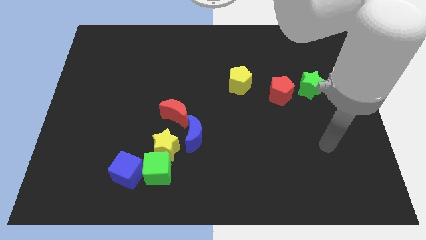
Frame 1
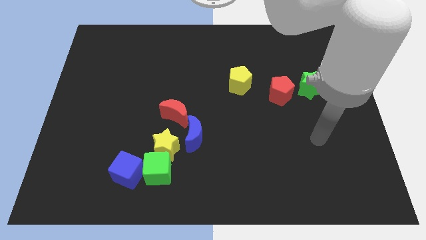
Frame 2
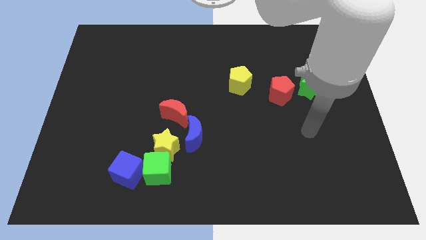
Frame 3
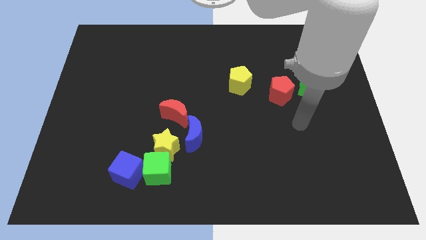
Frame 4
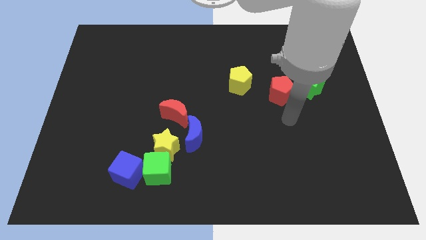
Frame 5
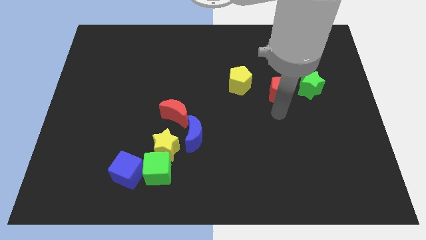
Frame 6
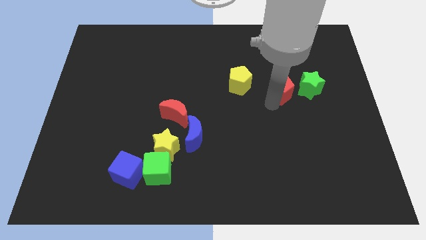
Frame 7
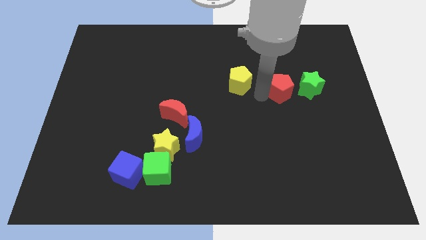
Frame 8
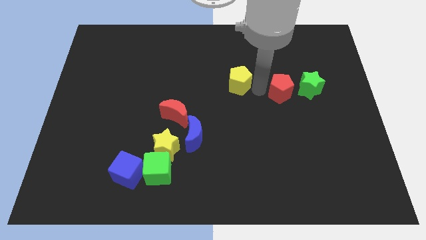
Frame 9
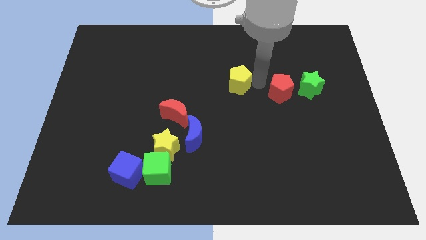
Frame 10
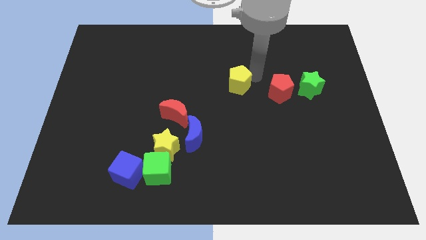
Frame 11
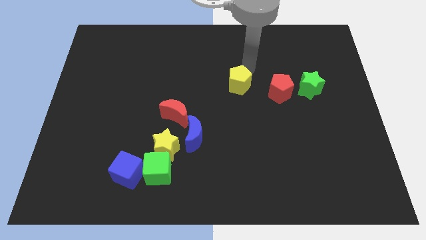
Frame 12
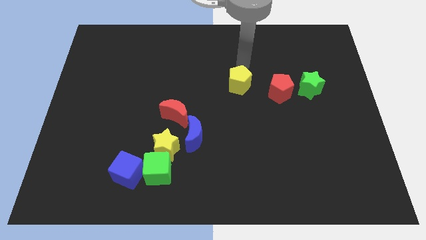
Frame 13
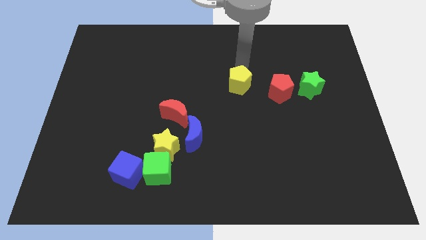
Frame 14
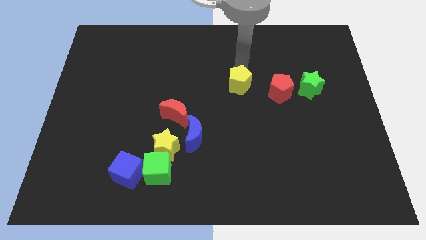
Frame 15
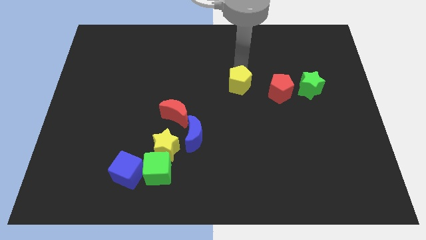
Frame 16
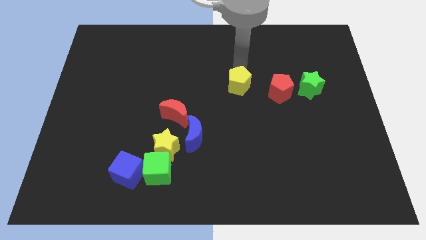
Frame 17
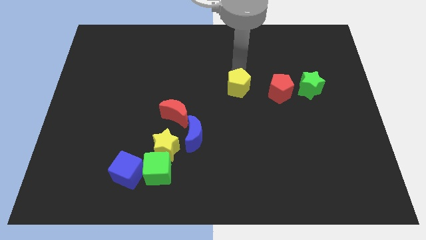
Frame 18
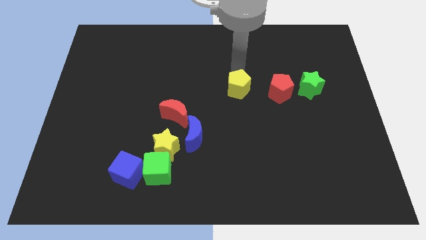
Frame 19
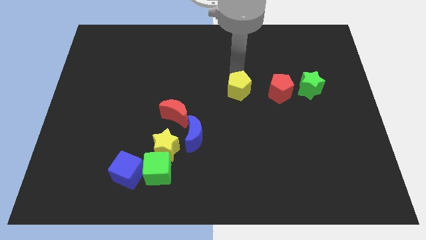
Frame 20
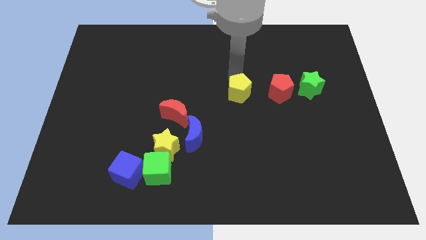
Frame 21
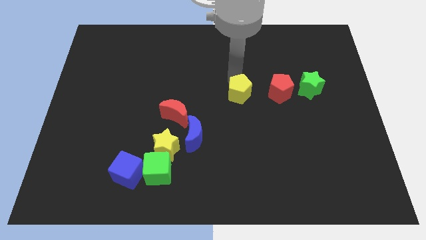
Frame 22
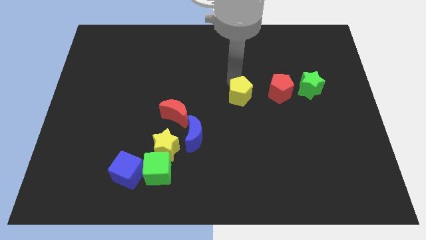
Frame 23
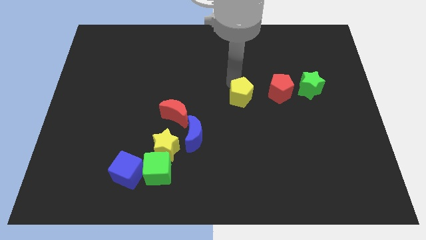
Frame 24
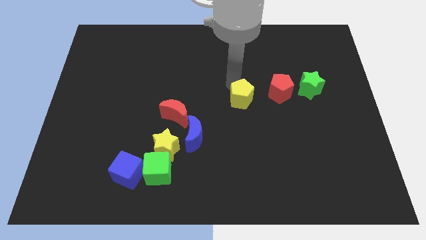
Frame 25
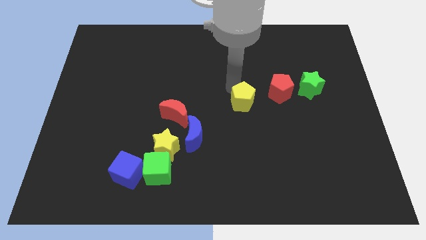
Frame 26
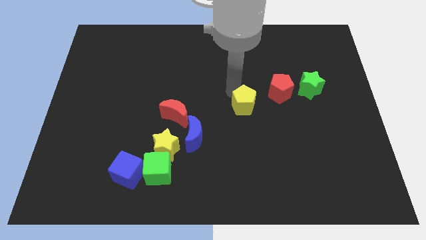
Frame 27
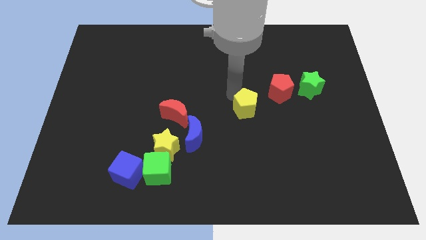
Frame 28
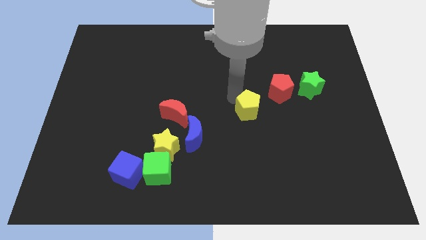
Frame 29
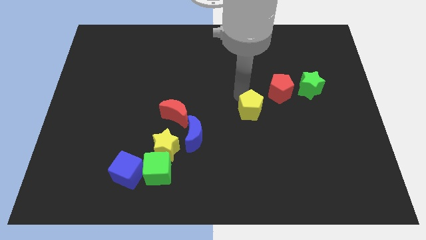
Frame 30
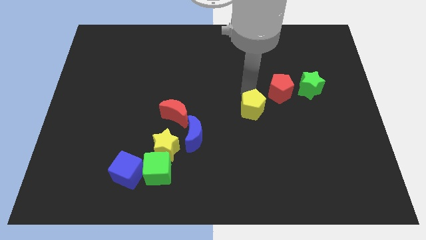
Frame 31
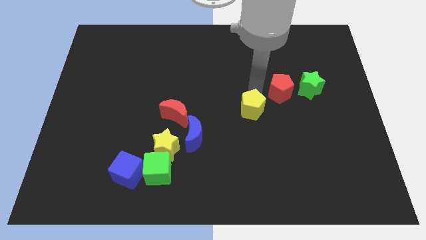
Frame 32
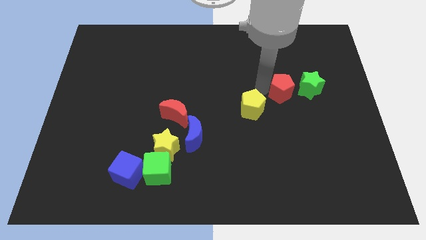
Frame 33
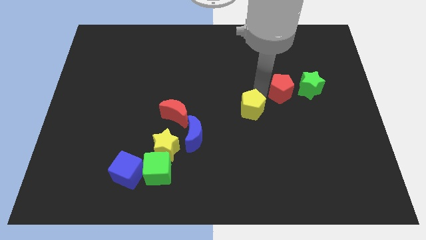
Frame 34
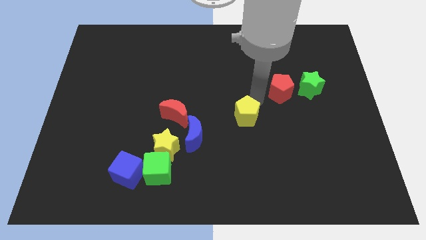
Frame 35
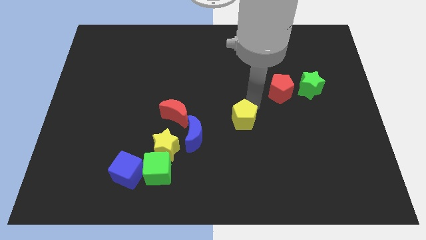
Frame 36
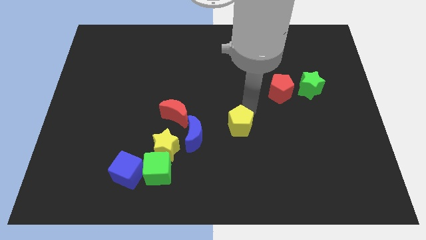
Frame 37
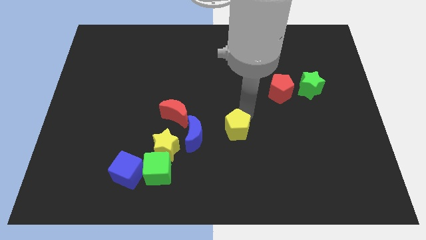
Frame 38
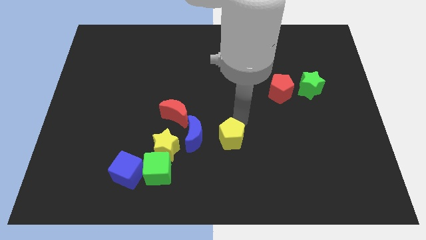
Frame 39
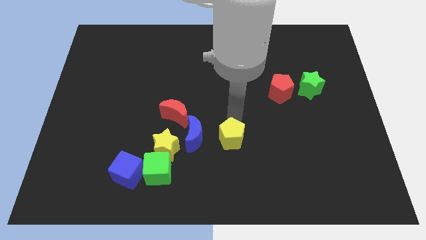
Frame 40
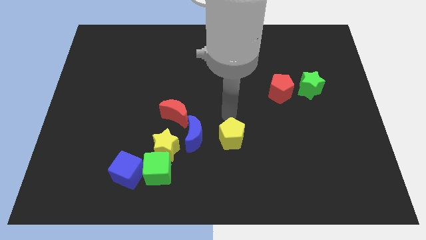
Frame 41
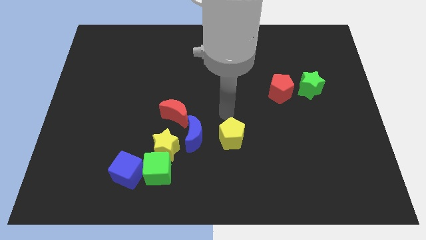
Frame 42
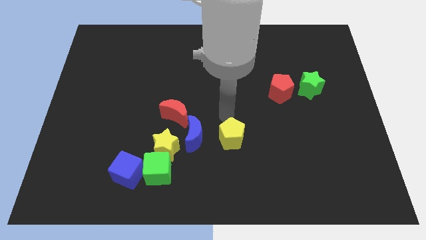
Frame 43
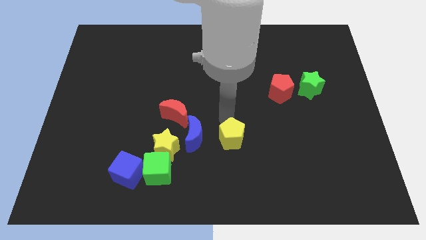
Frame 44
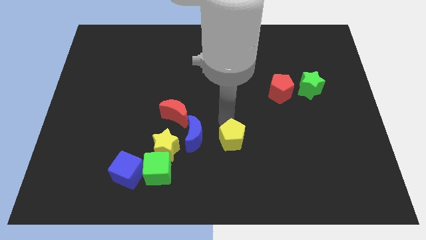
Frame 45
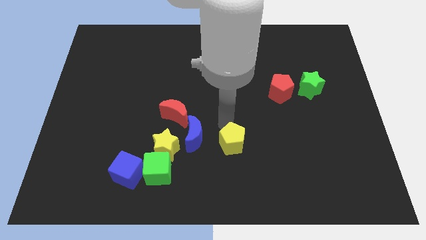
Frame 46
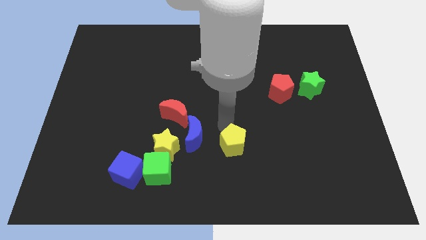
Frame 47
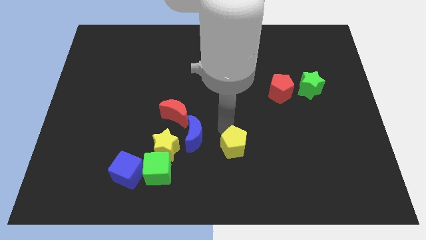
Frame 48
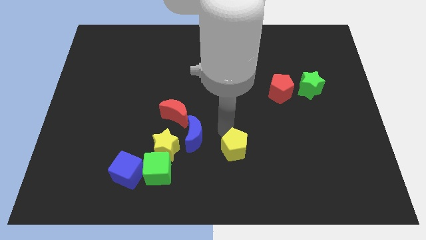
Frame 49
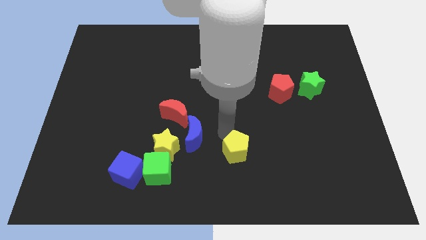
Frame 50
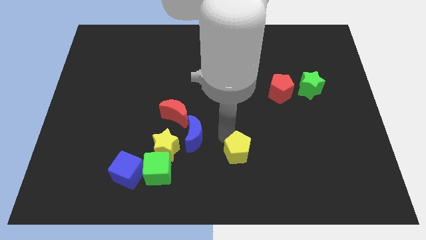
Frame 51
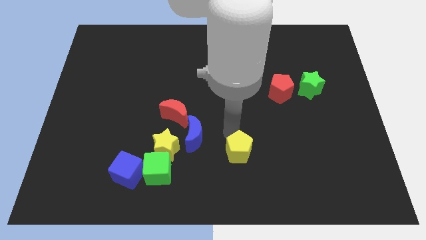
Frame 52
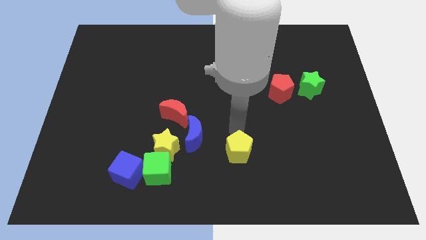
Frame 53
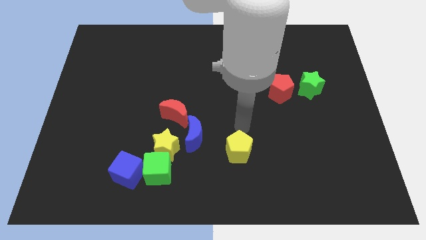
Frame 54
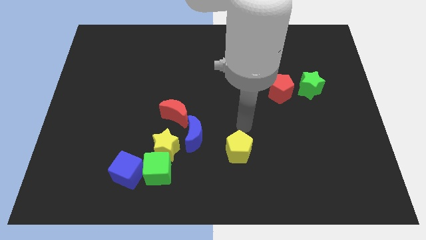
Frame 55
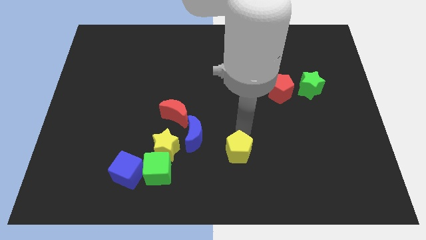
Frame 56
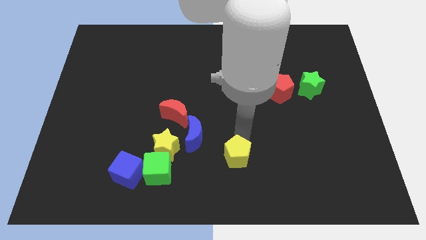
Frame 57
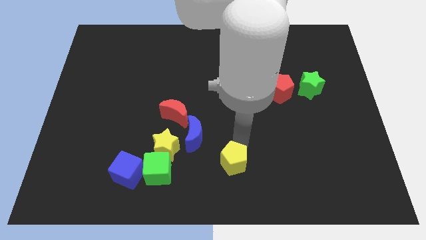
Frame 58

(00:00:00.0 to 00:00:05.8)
move the yellow pentagon to the bottom

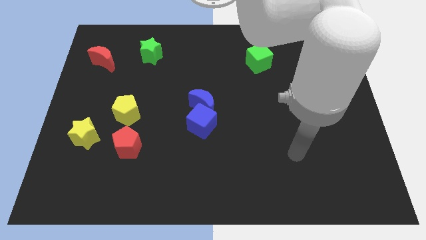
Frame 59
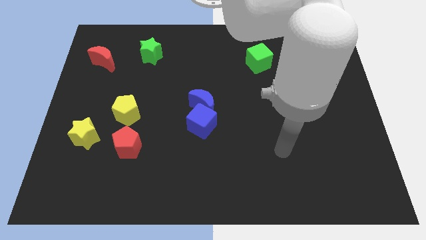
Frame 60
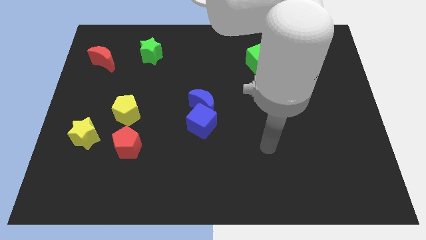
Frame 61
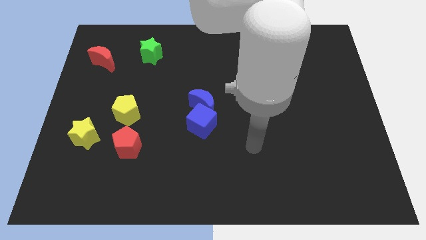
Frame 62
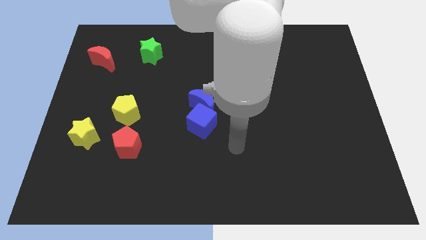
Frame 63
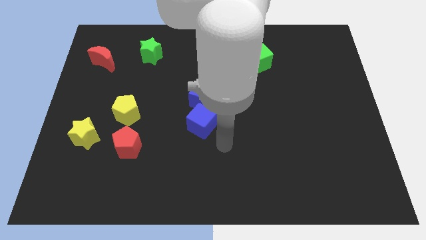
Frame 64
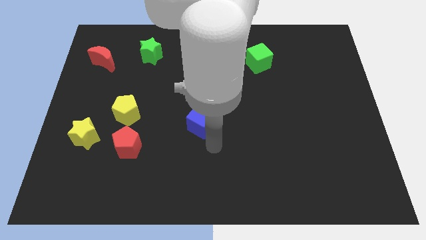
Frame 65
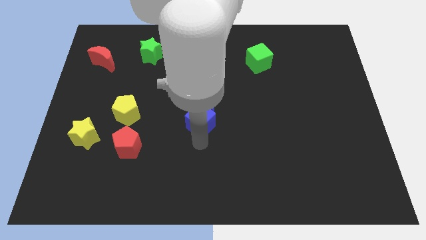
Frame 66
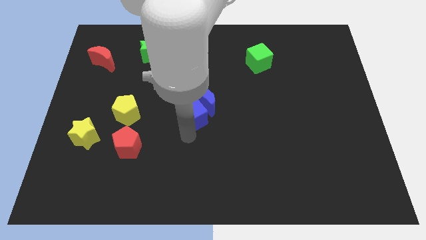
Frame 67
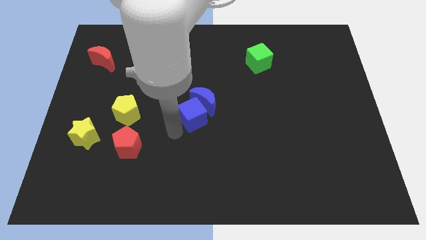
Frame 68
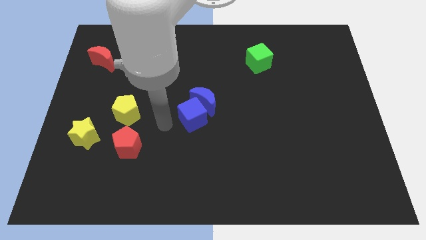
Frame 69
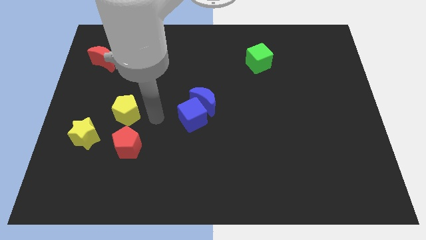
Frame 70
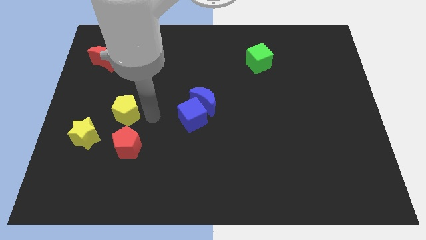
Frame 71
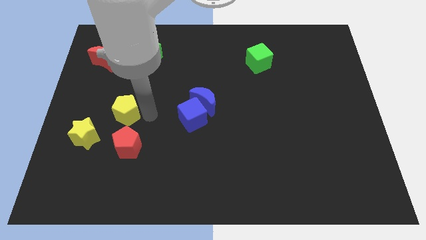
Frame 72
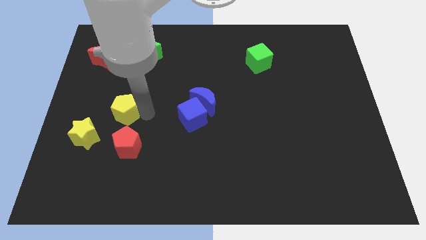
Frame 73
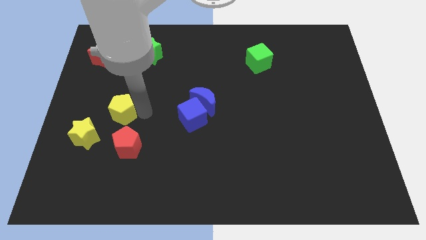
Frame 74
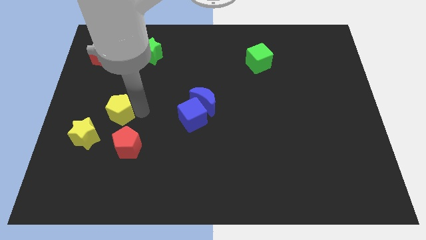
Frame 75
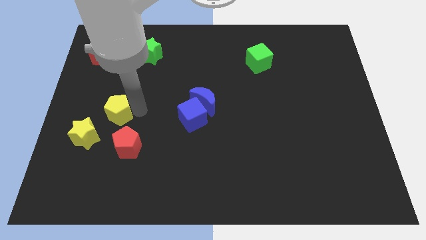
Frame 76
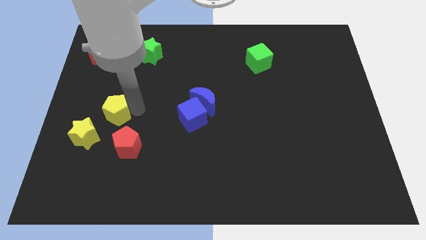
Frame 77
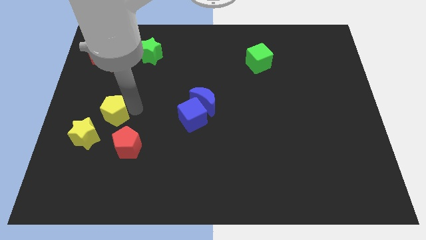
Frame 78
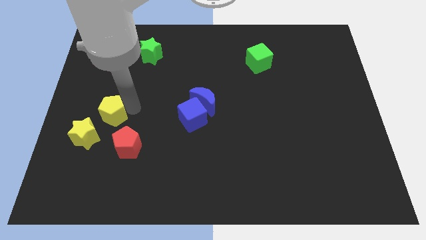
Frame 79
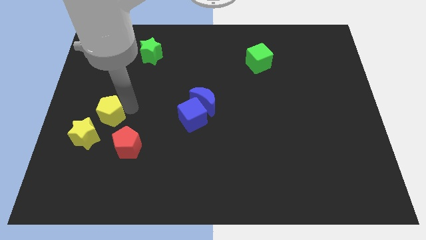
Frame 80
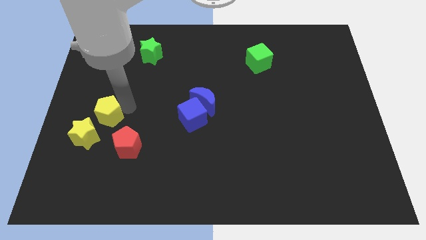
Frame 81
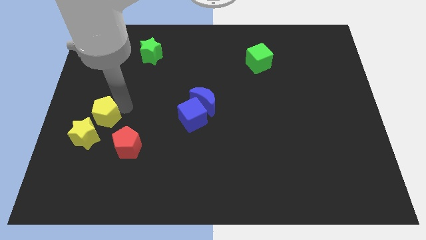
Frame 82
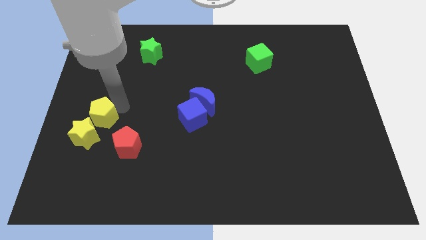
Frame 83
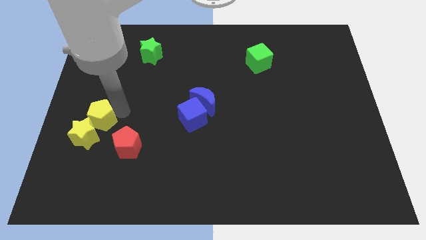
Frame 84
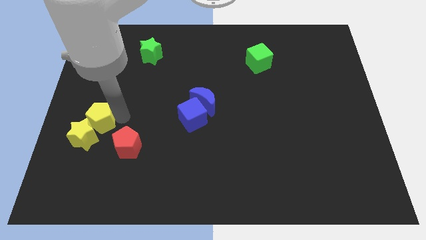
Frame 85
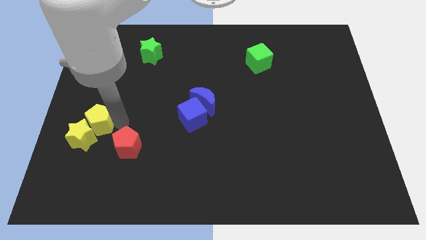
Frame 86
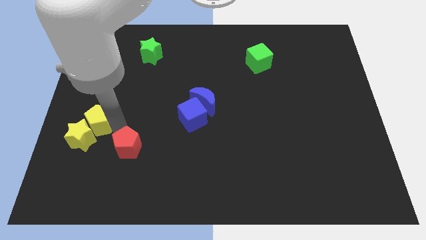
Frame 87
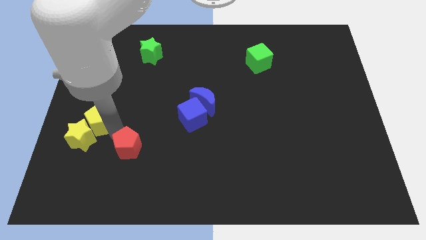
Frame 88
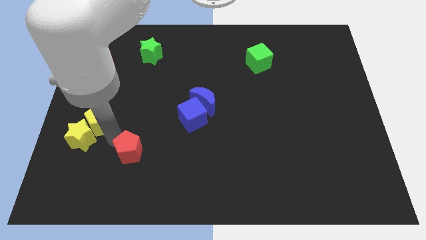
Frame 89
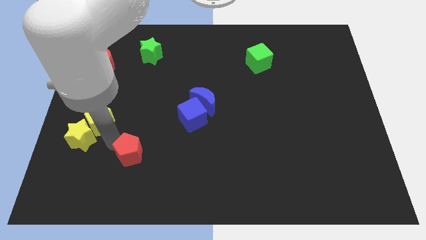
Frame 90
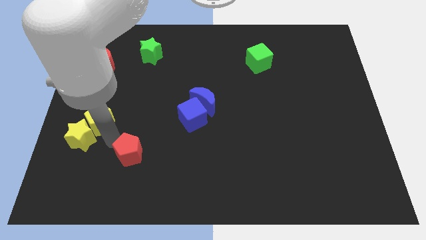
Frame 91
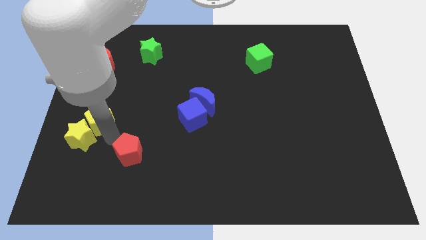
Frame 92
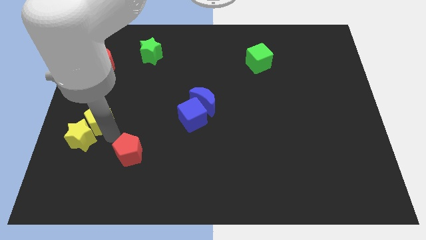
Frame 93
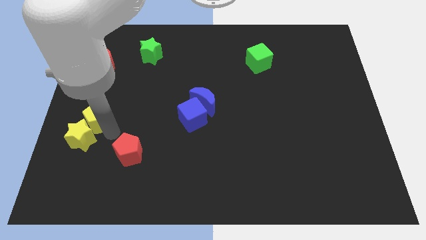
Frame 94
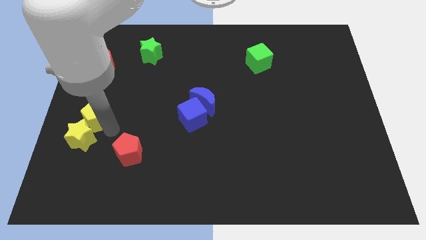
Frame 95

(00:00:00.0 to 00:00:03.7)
push the yellow pentagon to the left side
